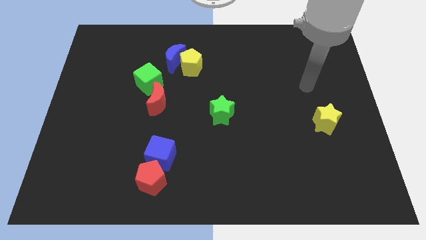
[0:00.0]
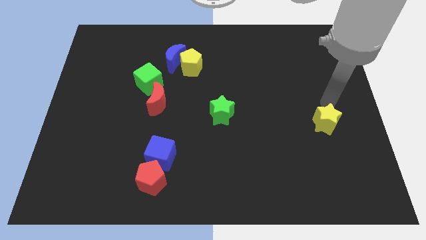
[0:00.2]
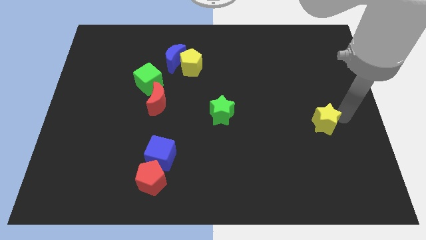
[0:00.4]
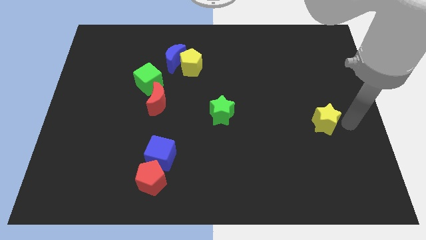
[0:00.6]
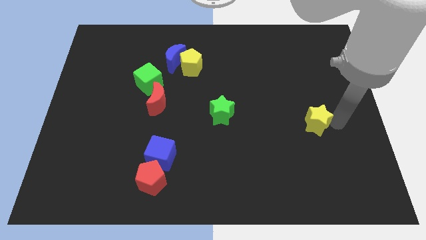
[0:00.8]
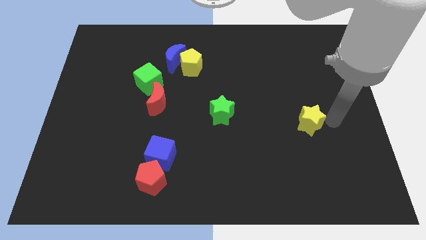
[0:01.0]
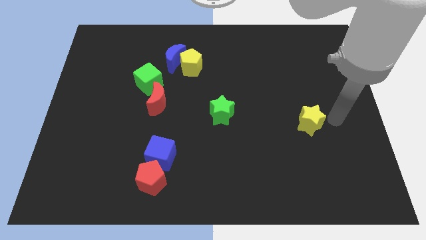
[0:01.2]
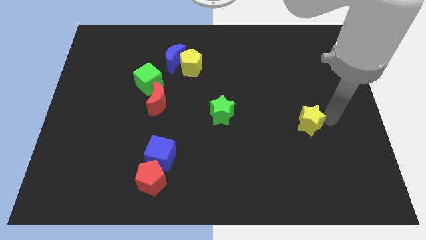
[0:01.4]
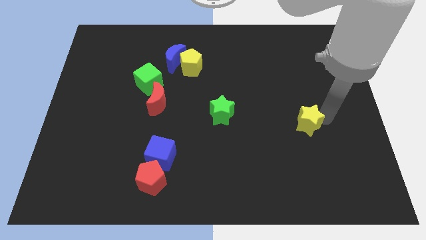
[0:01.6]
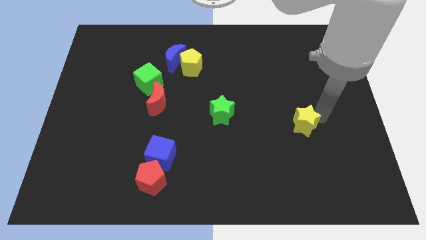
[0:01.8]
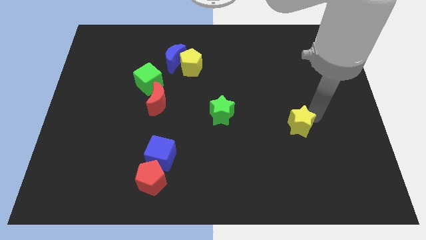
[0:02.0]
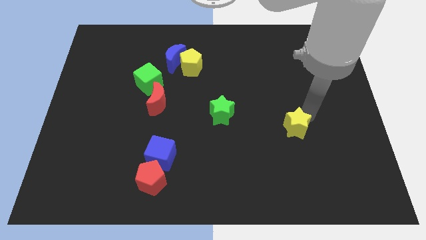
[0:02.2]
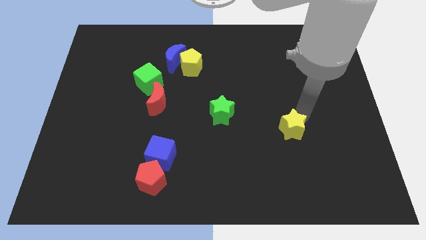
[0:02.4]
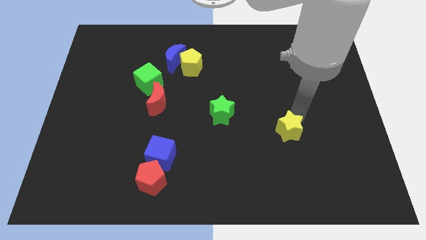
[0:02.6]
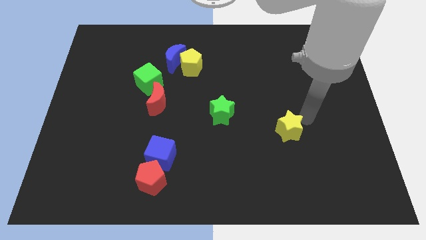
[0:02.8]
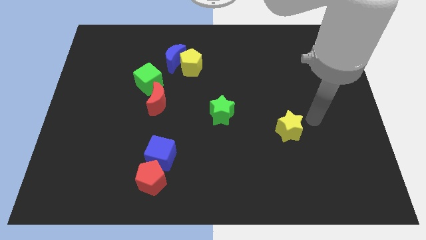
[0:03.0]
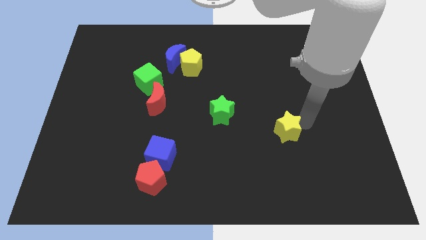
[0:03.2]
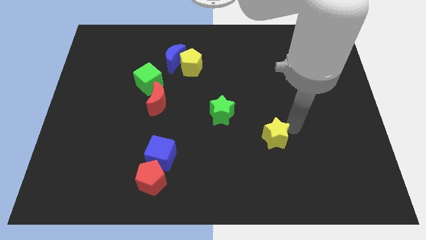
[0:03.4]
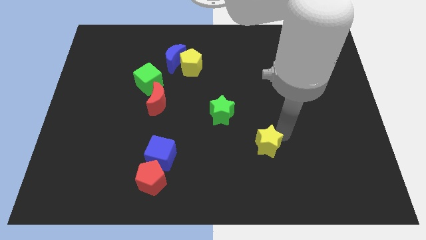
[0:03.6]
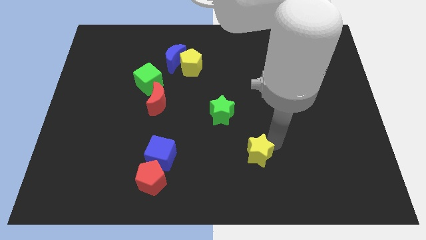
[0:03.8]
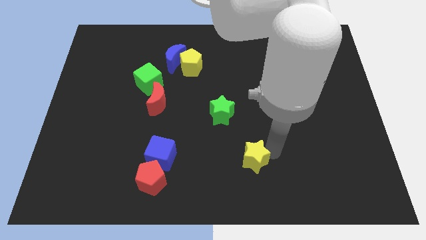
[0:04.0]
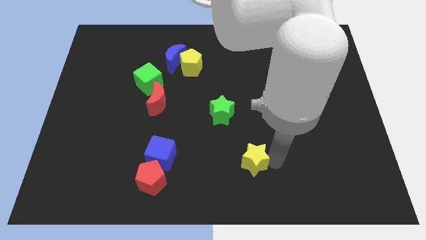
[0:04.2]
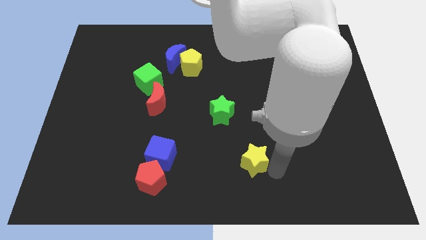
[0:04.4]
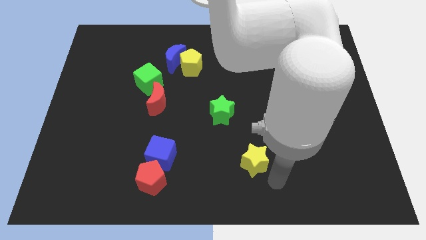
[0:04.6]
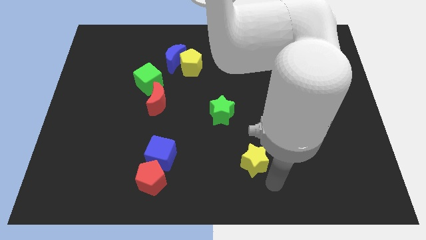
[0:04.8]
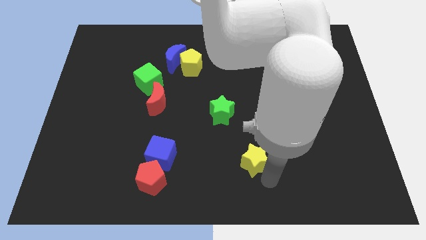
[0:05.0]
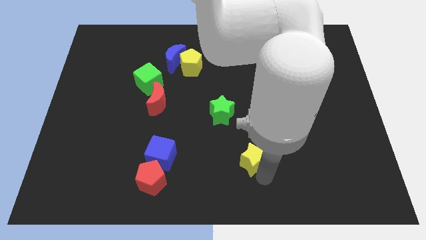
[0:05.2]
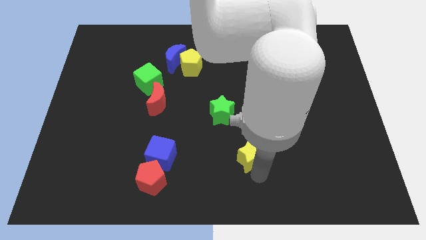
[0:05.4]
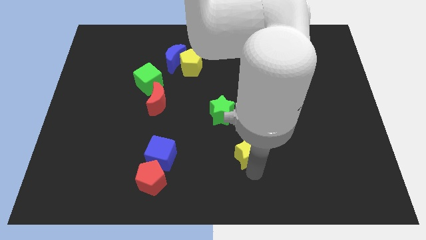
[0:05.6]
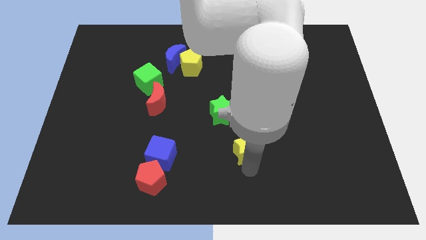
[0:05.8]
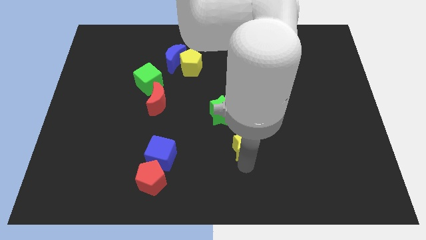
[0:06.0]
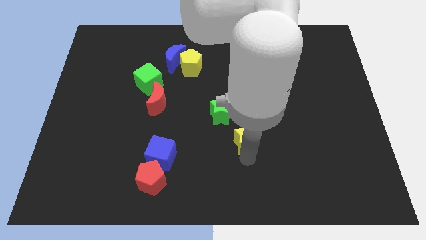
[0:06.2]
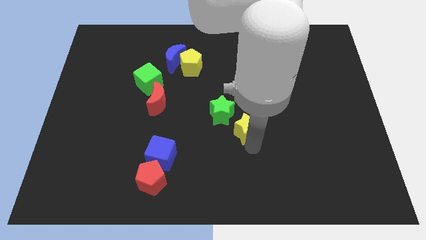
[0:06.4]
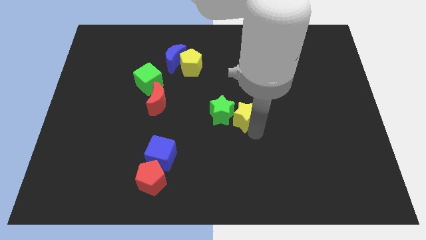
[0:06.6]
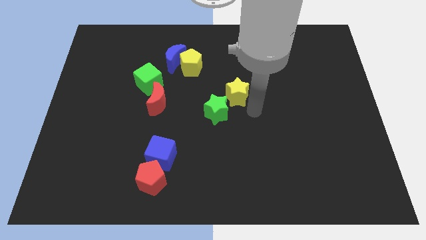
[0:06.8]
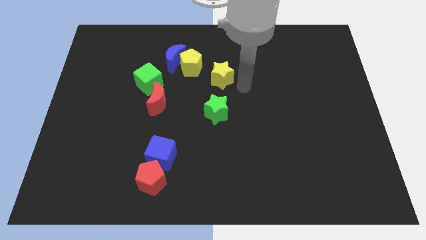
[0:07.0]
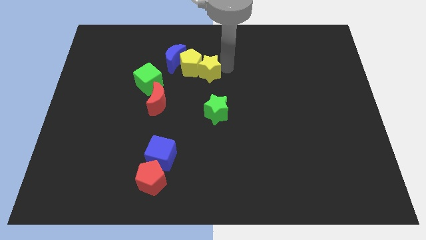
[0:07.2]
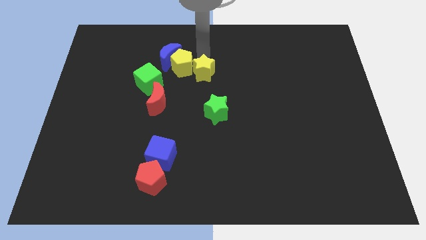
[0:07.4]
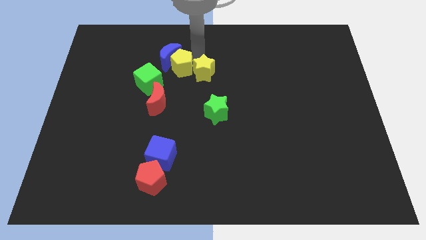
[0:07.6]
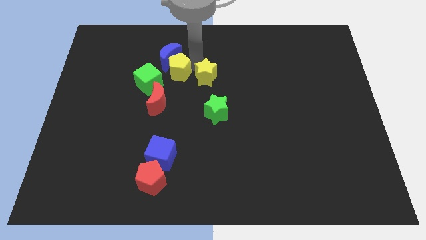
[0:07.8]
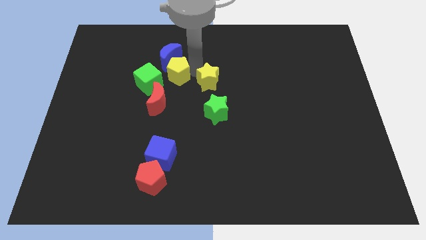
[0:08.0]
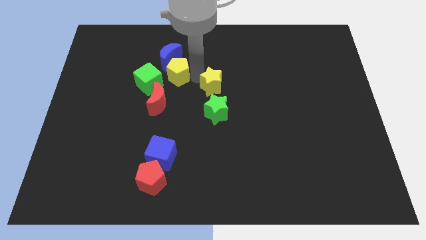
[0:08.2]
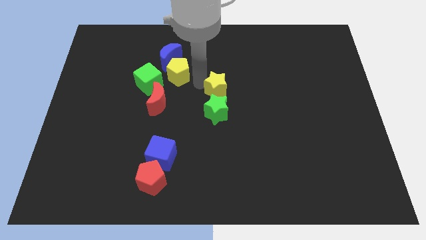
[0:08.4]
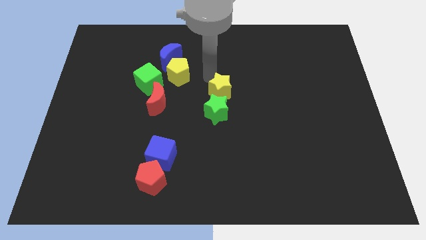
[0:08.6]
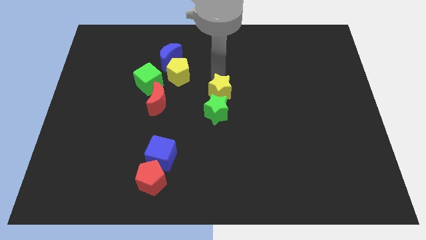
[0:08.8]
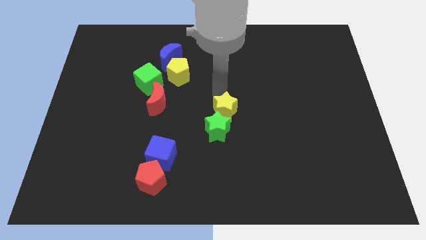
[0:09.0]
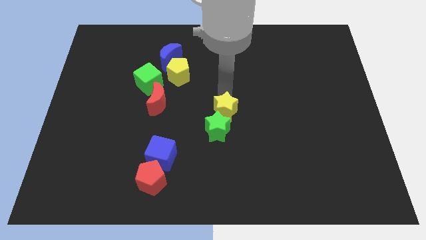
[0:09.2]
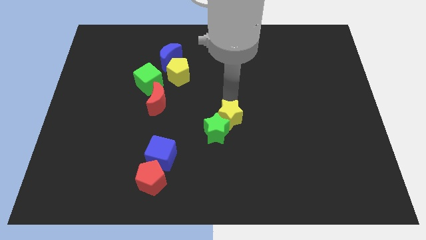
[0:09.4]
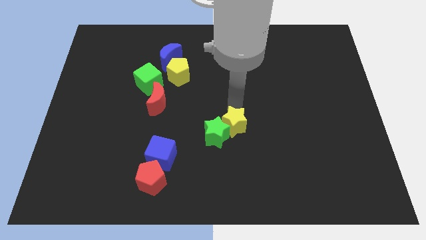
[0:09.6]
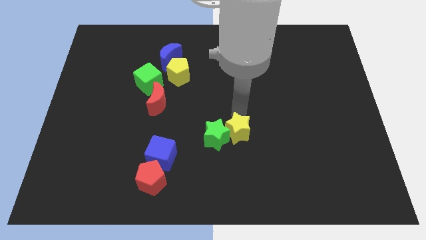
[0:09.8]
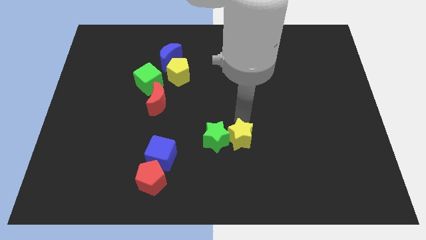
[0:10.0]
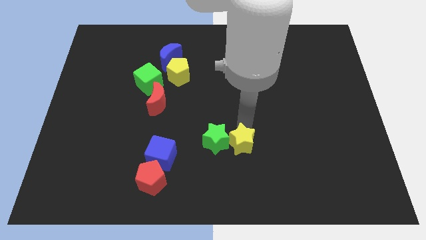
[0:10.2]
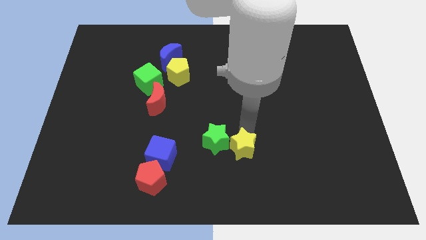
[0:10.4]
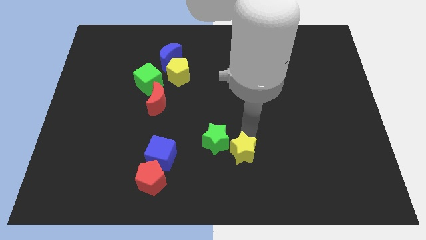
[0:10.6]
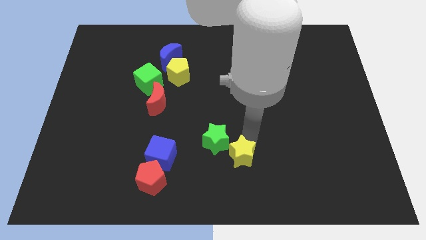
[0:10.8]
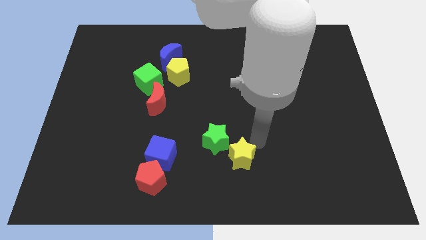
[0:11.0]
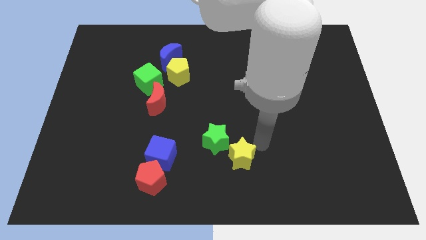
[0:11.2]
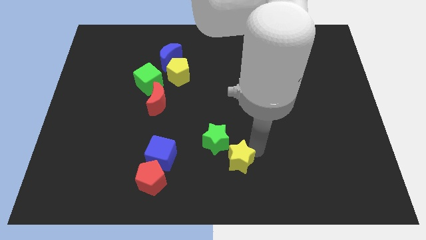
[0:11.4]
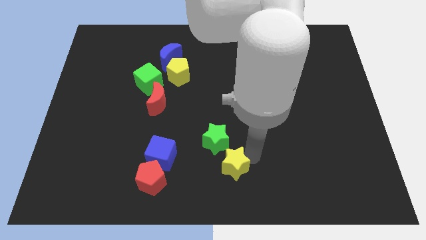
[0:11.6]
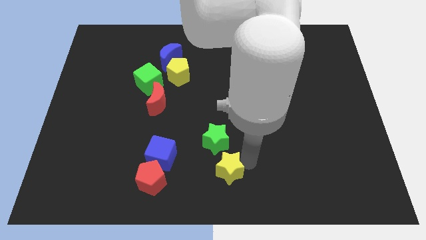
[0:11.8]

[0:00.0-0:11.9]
slide the yellow star to the right of the red pentagon

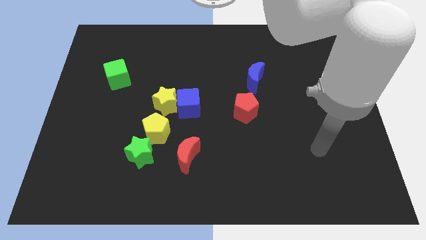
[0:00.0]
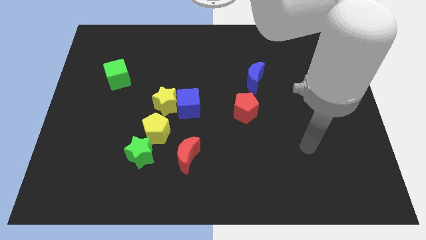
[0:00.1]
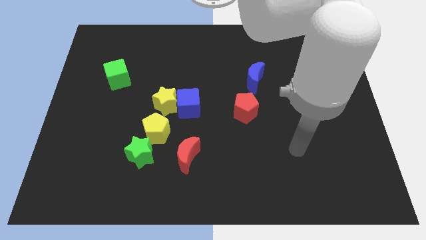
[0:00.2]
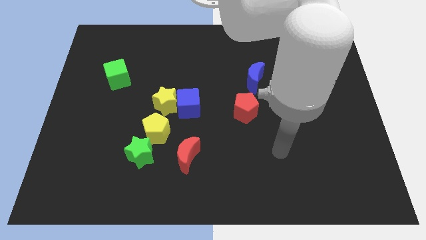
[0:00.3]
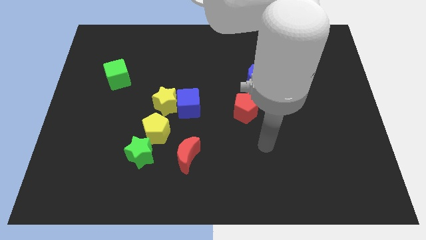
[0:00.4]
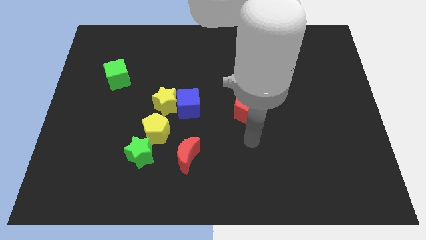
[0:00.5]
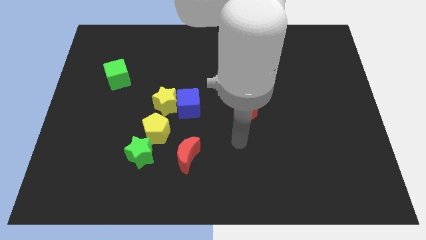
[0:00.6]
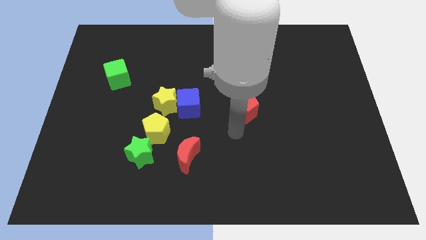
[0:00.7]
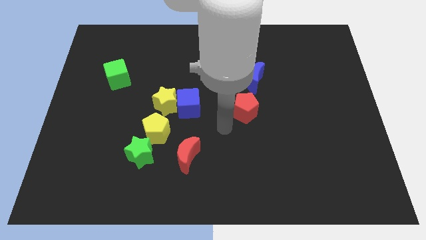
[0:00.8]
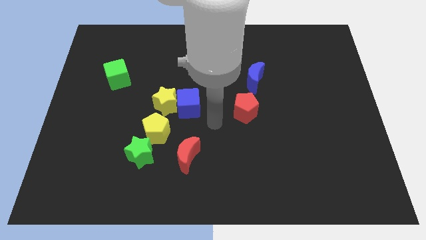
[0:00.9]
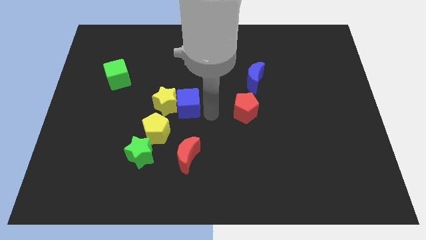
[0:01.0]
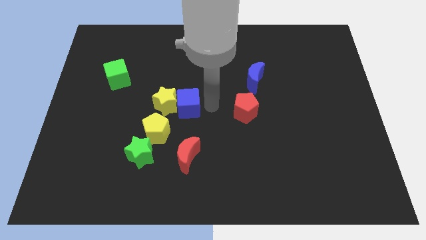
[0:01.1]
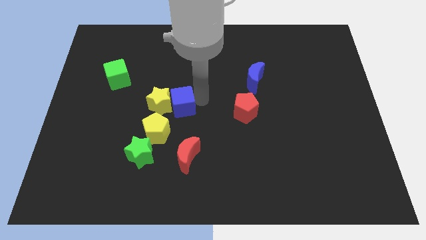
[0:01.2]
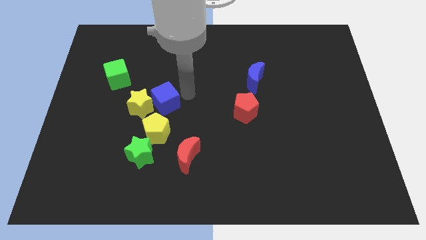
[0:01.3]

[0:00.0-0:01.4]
put the yellow star to the top left of the yellow pentagon

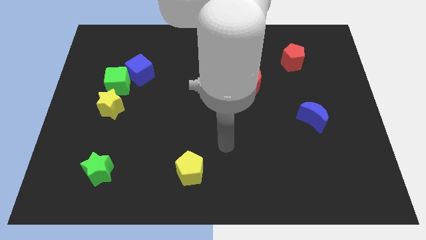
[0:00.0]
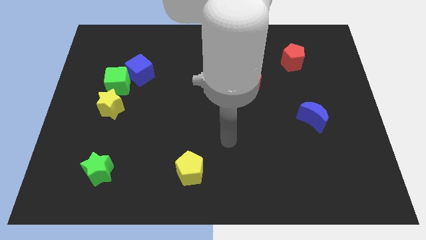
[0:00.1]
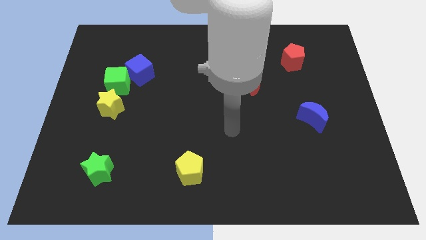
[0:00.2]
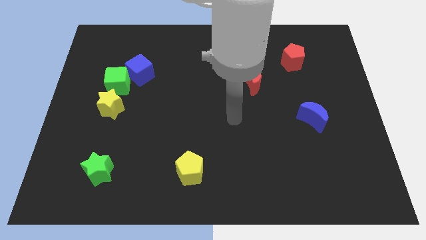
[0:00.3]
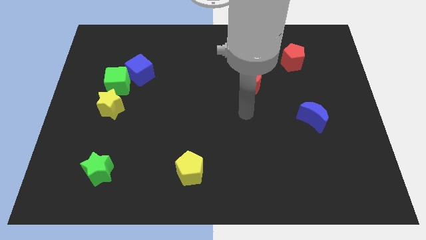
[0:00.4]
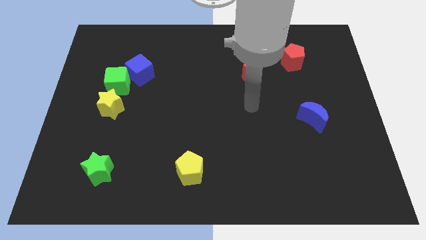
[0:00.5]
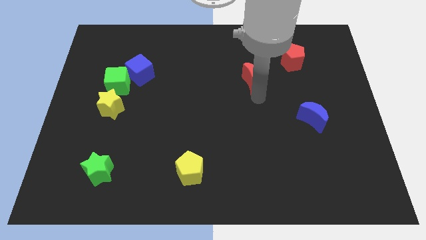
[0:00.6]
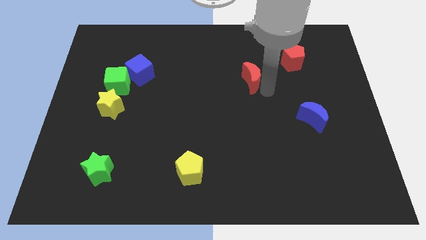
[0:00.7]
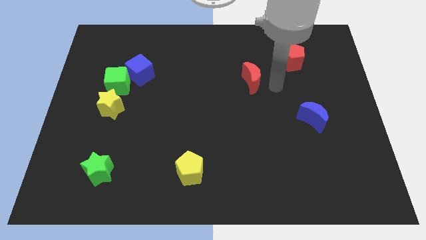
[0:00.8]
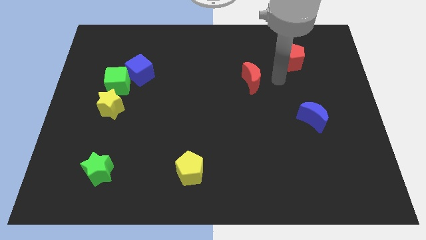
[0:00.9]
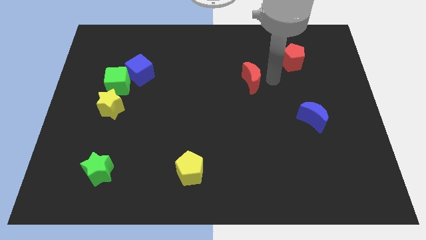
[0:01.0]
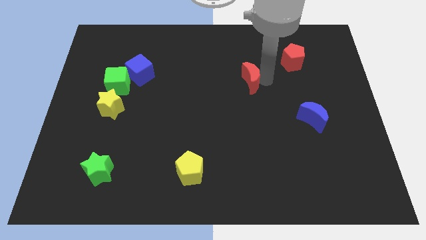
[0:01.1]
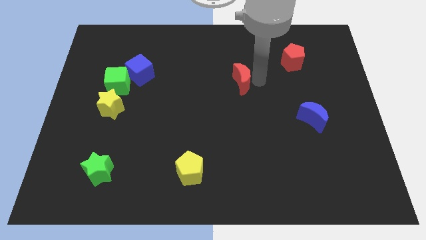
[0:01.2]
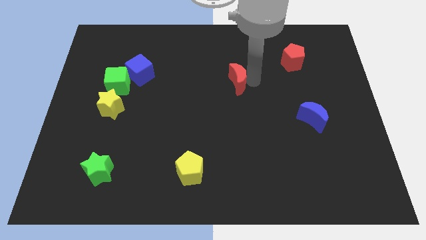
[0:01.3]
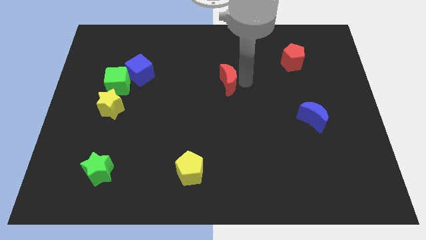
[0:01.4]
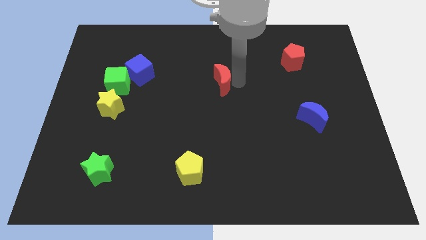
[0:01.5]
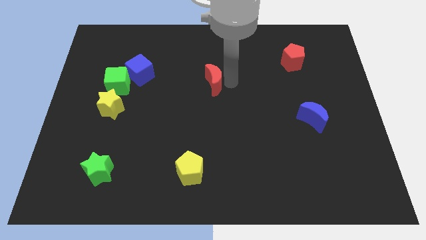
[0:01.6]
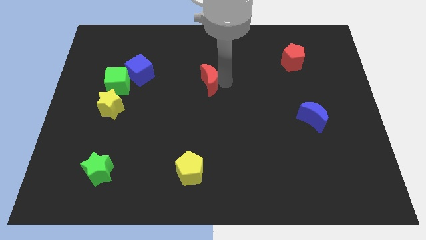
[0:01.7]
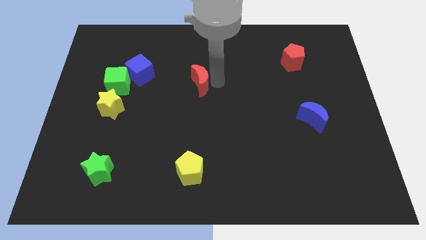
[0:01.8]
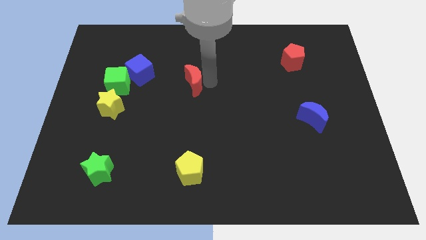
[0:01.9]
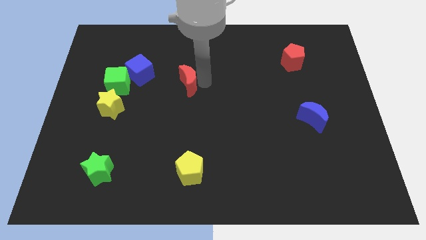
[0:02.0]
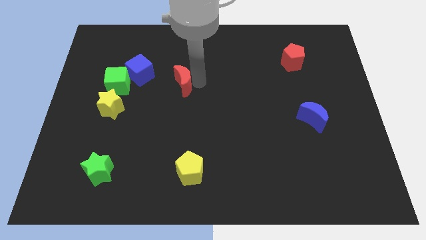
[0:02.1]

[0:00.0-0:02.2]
push the red moon to the right of the green cube
